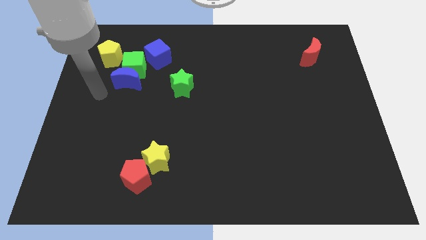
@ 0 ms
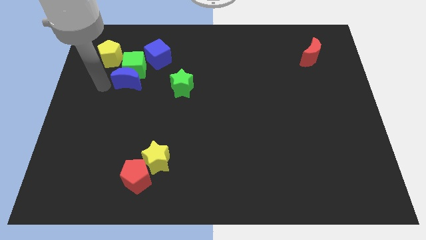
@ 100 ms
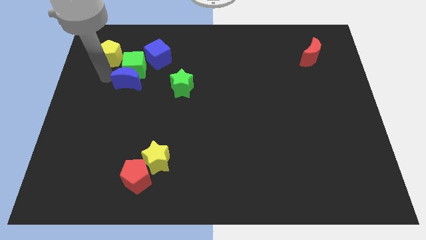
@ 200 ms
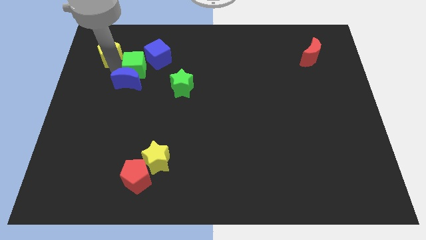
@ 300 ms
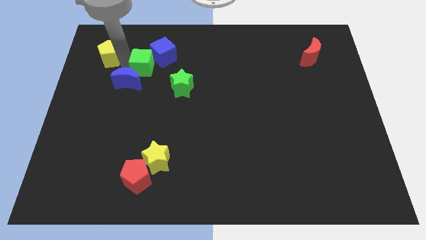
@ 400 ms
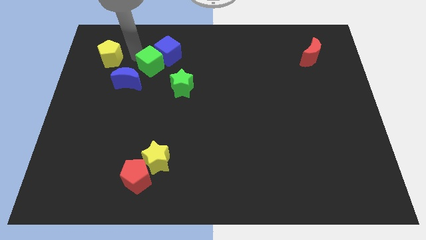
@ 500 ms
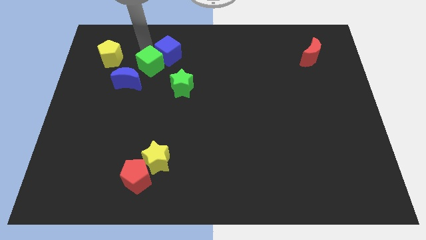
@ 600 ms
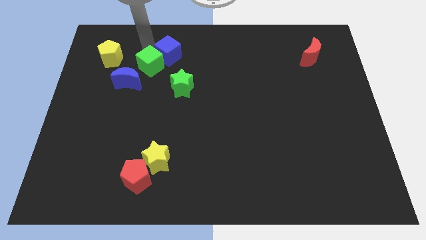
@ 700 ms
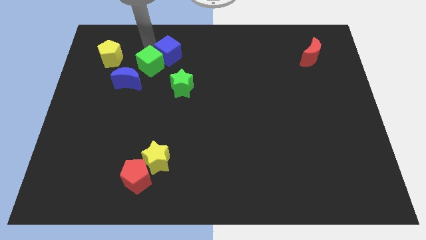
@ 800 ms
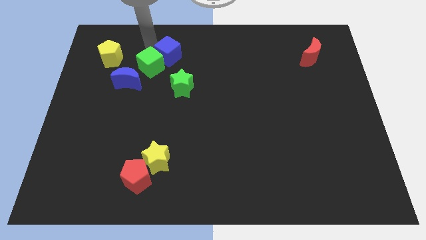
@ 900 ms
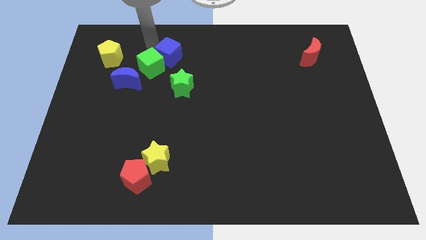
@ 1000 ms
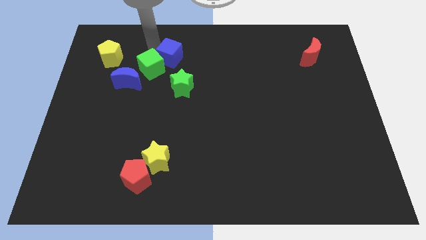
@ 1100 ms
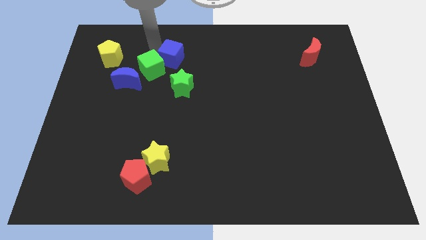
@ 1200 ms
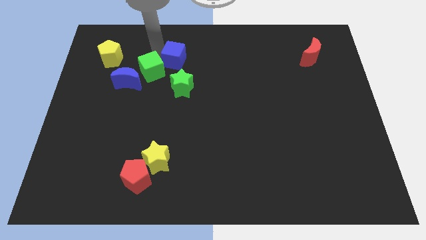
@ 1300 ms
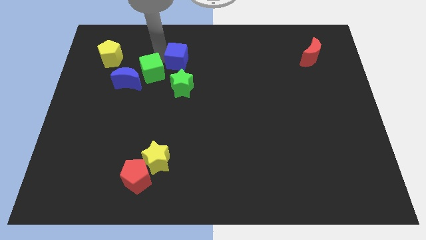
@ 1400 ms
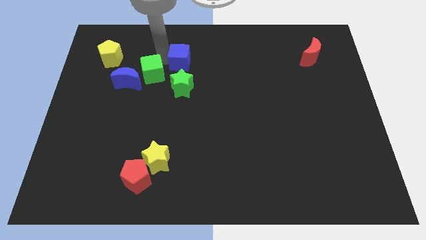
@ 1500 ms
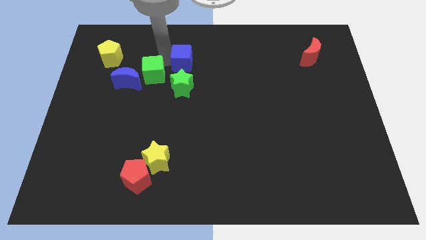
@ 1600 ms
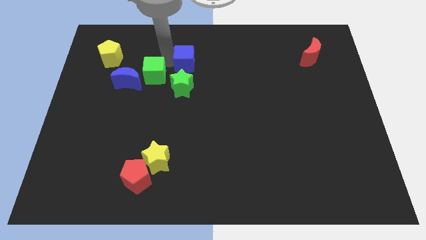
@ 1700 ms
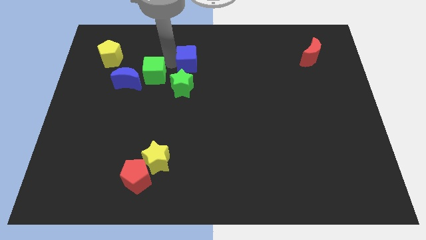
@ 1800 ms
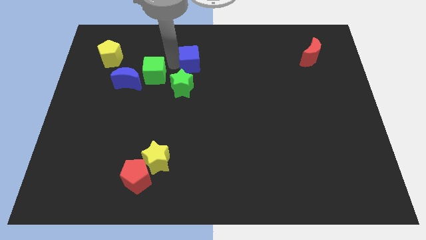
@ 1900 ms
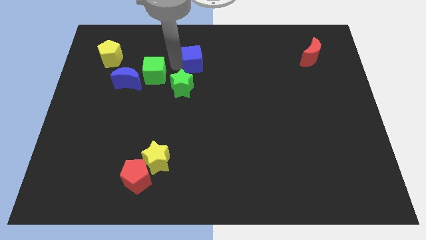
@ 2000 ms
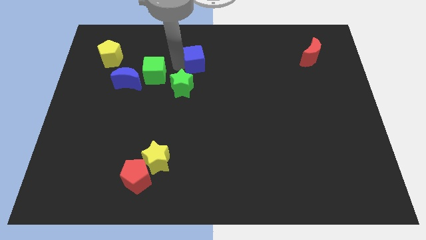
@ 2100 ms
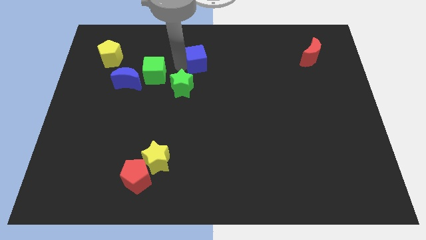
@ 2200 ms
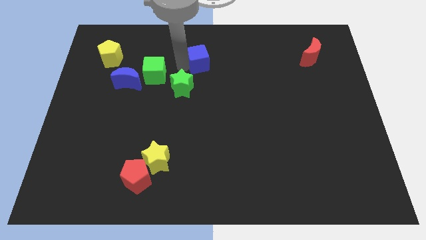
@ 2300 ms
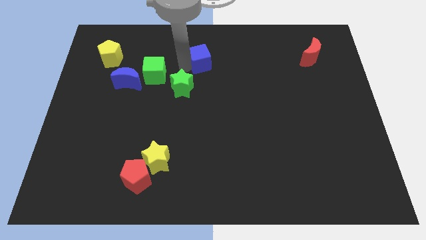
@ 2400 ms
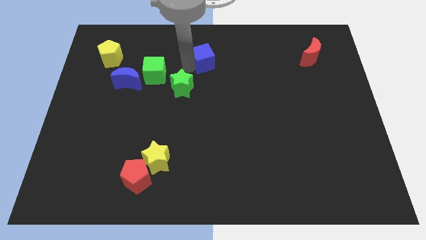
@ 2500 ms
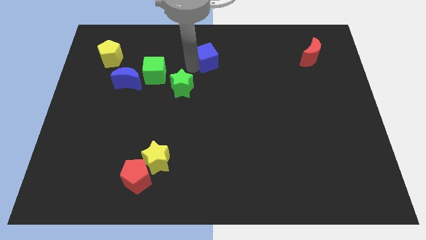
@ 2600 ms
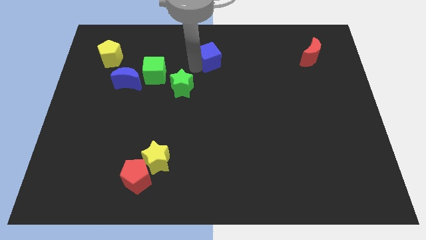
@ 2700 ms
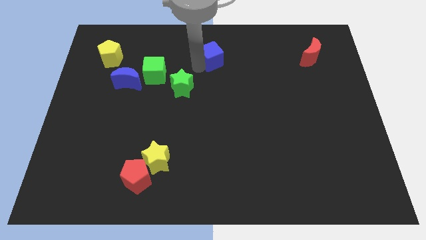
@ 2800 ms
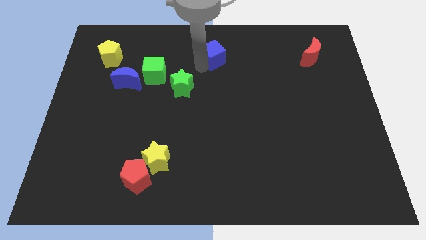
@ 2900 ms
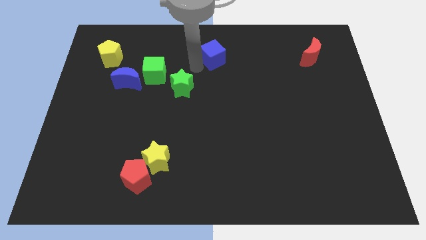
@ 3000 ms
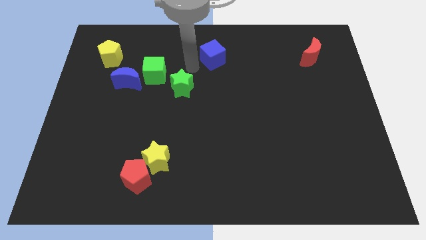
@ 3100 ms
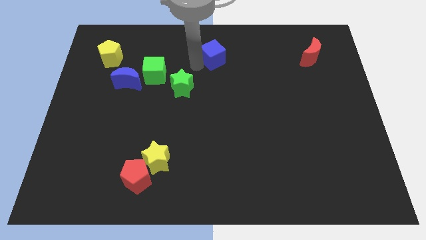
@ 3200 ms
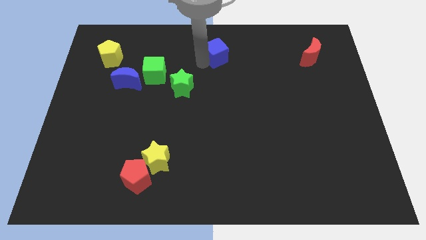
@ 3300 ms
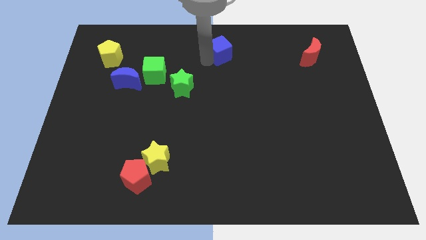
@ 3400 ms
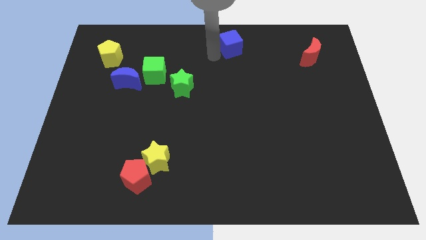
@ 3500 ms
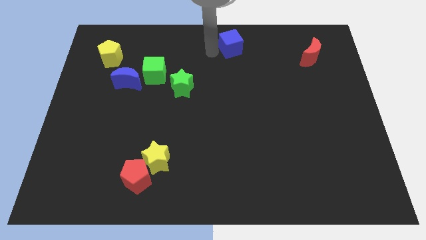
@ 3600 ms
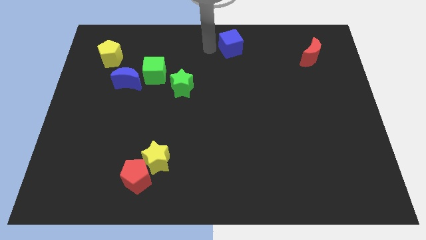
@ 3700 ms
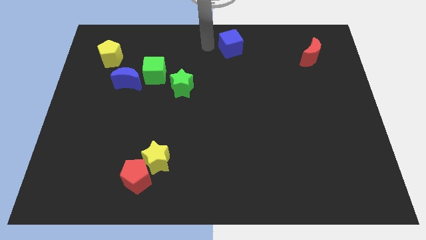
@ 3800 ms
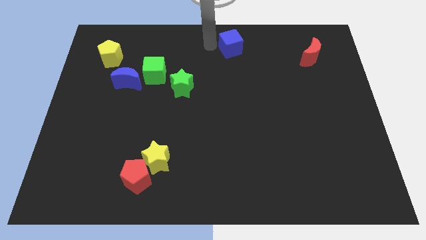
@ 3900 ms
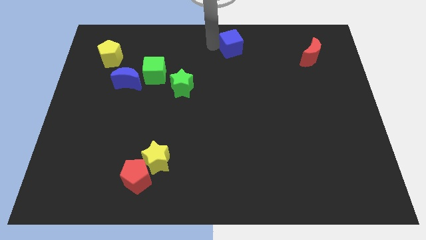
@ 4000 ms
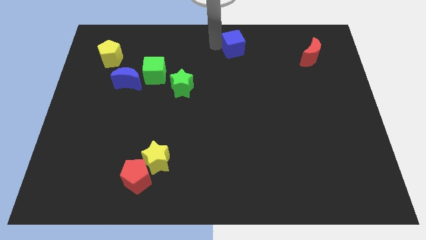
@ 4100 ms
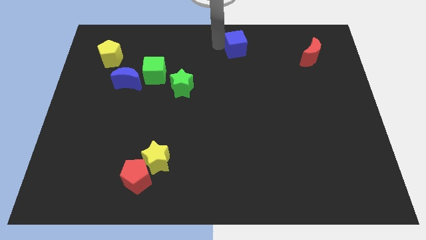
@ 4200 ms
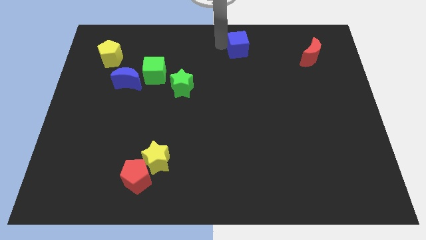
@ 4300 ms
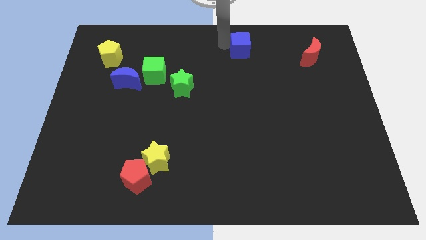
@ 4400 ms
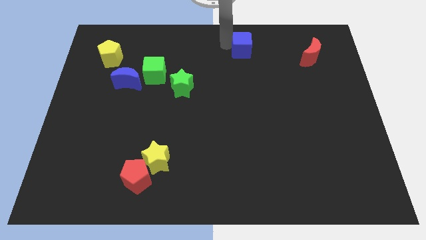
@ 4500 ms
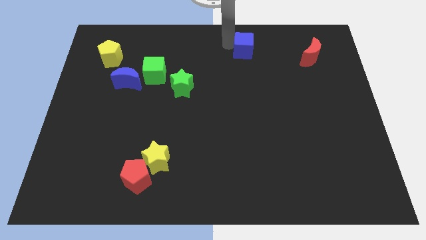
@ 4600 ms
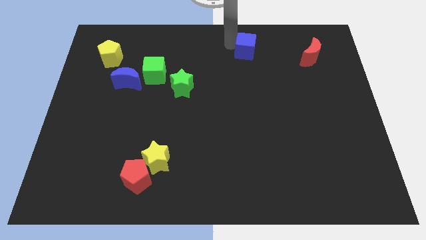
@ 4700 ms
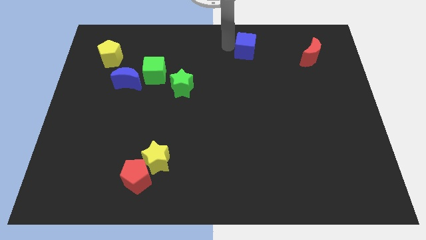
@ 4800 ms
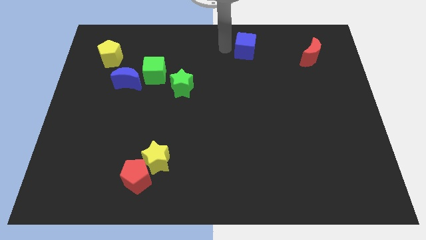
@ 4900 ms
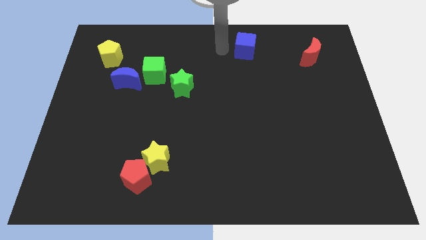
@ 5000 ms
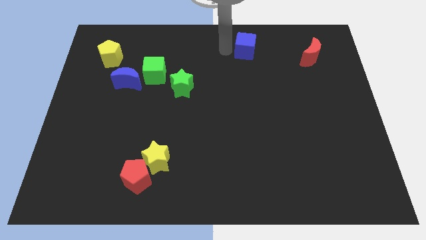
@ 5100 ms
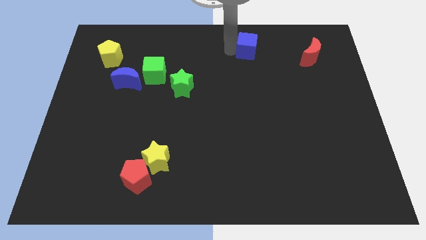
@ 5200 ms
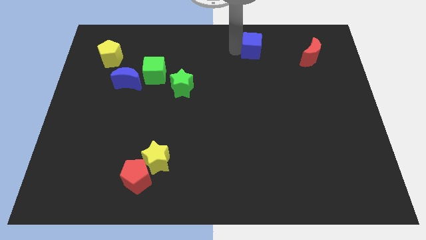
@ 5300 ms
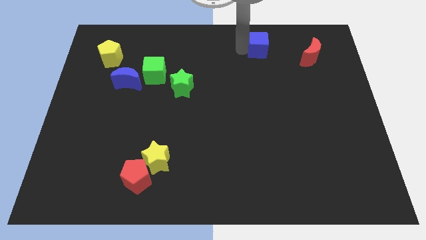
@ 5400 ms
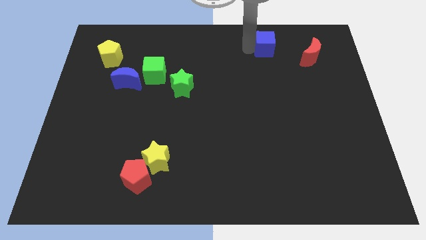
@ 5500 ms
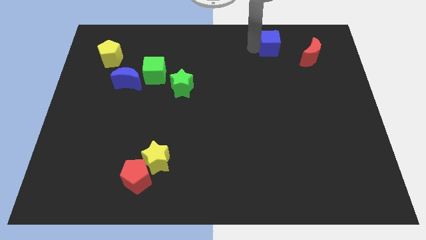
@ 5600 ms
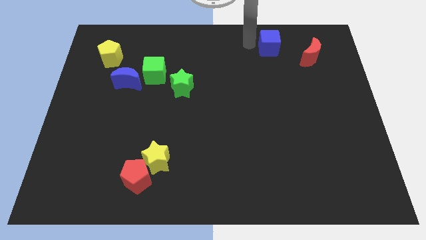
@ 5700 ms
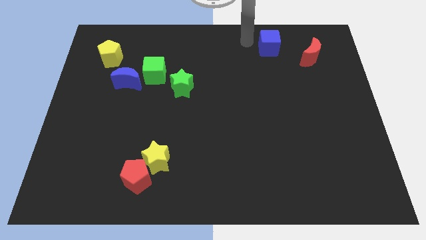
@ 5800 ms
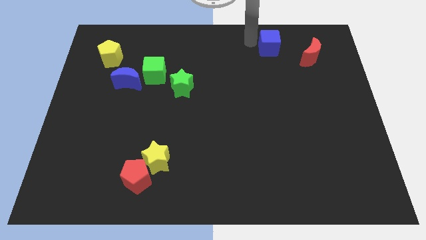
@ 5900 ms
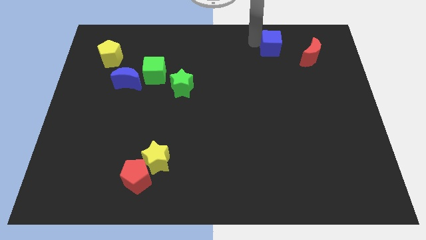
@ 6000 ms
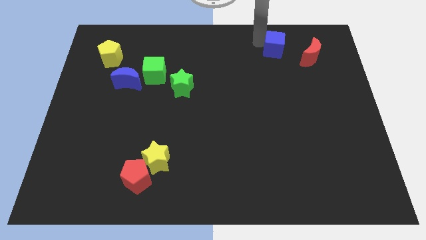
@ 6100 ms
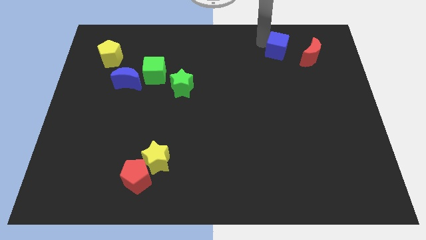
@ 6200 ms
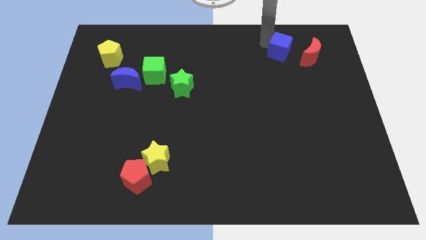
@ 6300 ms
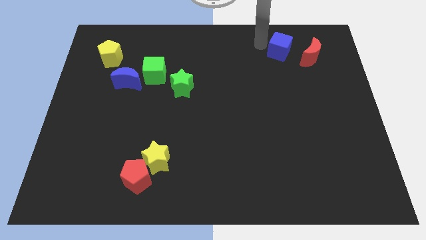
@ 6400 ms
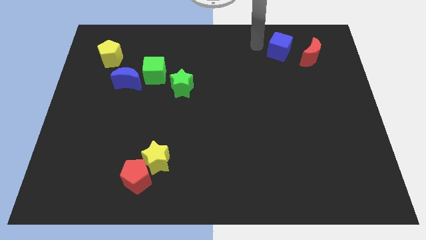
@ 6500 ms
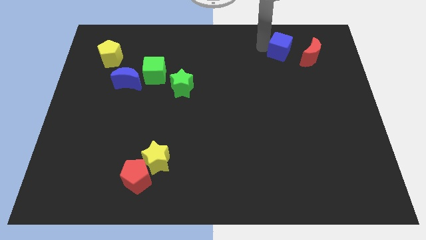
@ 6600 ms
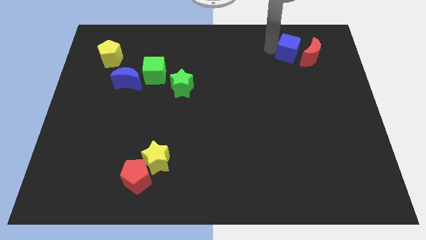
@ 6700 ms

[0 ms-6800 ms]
push the blue cube towards the red moon
